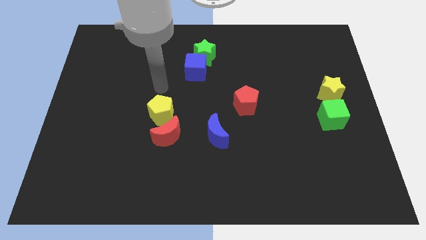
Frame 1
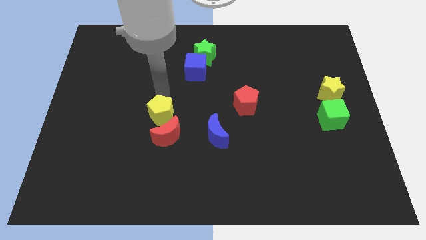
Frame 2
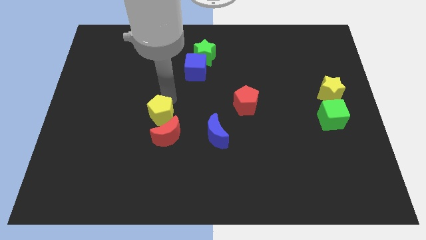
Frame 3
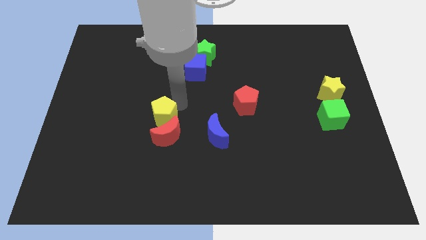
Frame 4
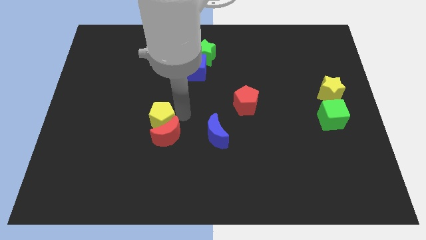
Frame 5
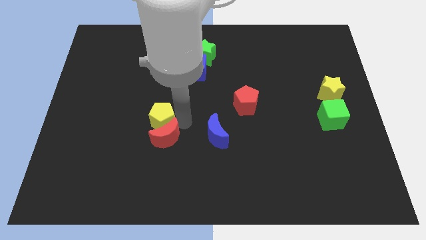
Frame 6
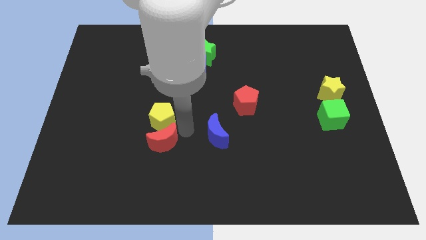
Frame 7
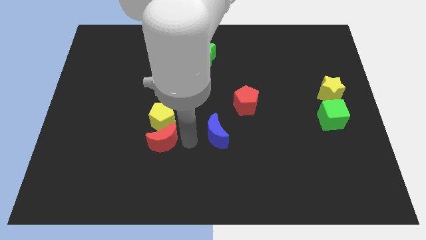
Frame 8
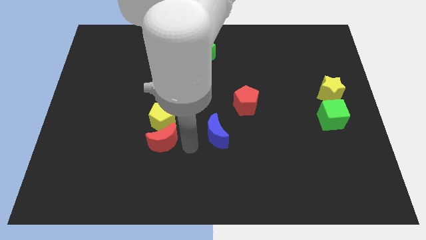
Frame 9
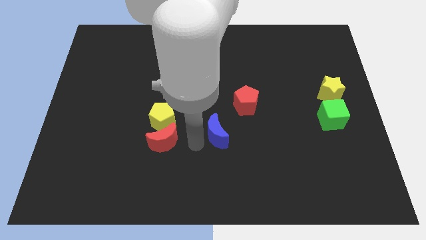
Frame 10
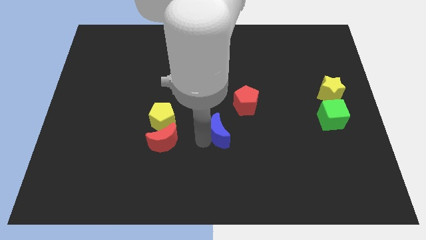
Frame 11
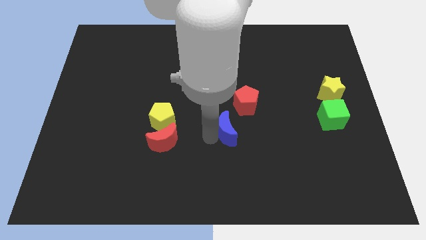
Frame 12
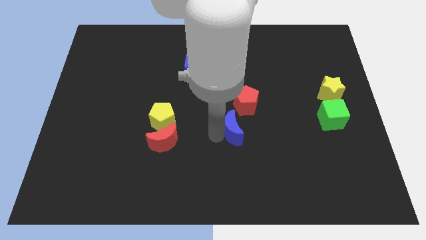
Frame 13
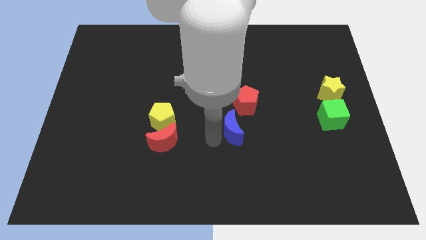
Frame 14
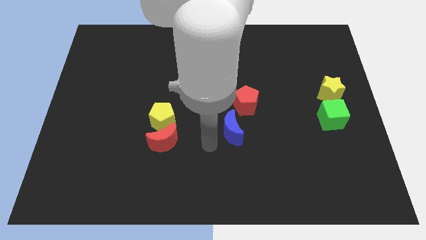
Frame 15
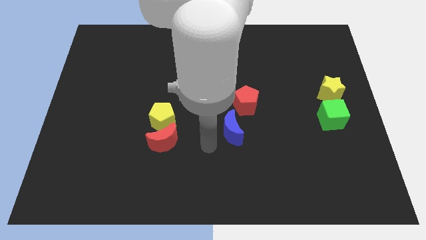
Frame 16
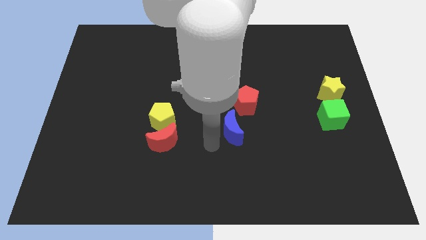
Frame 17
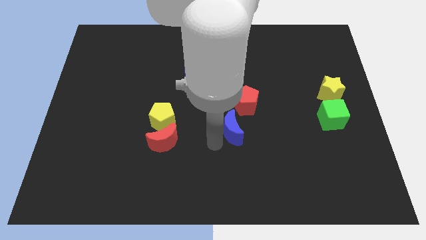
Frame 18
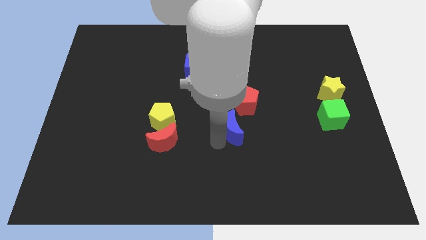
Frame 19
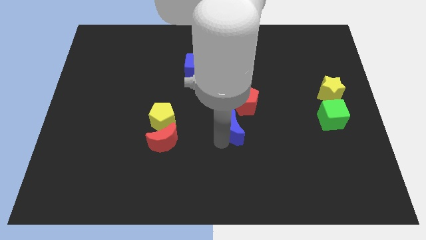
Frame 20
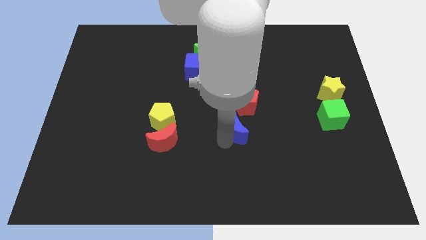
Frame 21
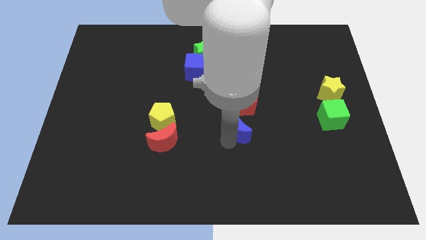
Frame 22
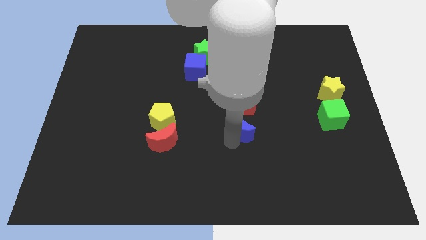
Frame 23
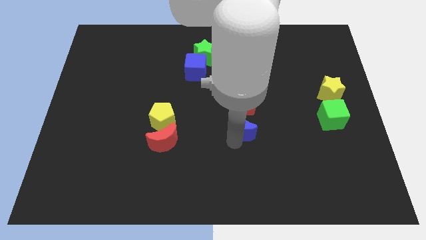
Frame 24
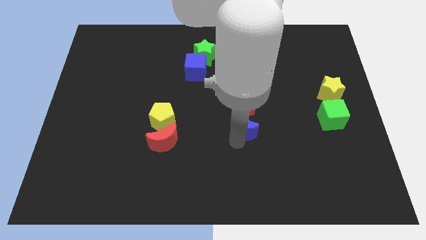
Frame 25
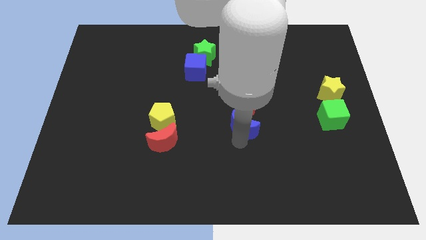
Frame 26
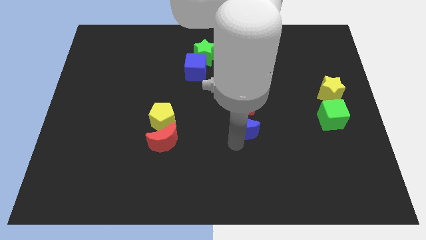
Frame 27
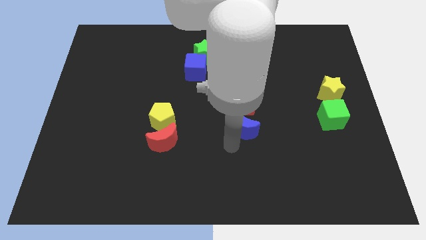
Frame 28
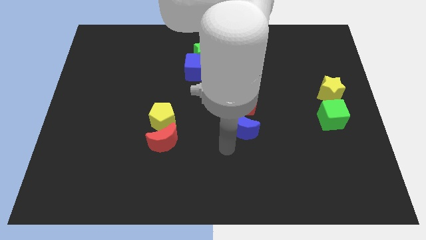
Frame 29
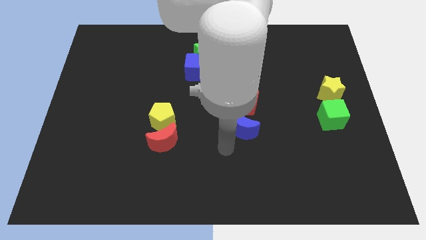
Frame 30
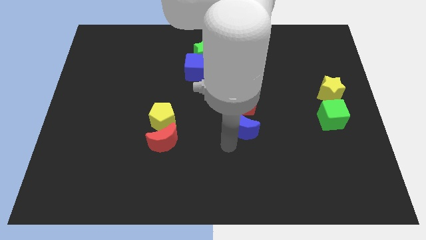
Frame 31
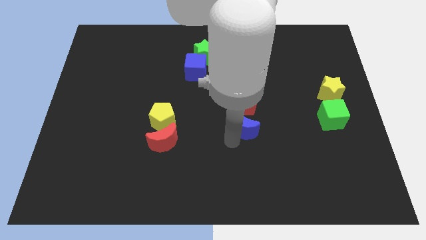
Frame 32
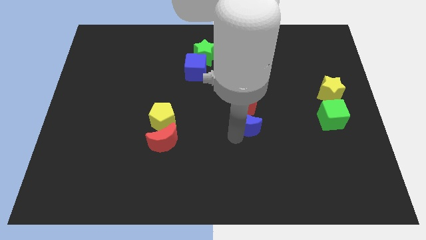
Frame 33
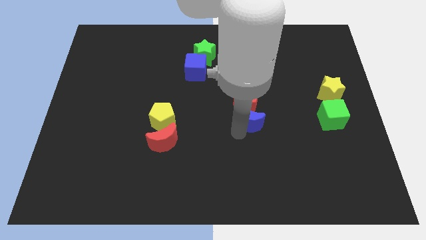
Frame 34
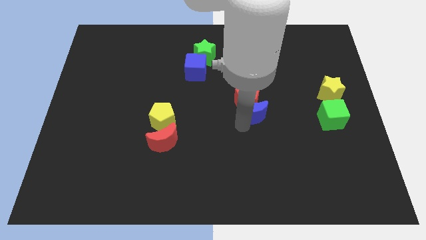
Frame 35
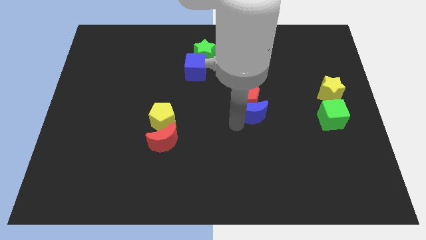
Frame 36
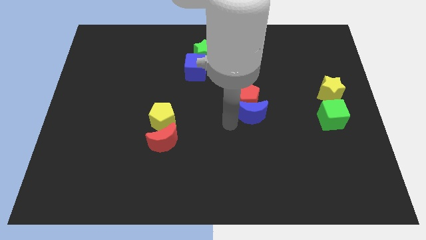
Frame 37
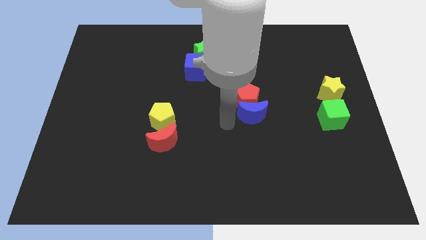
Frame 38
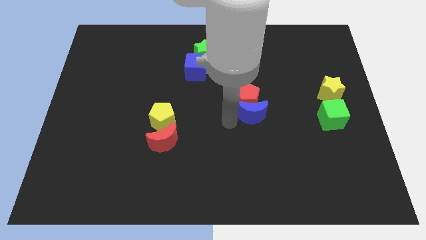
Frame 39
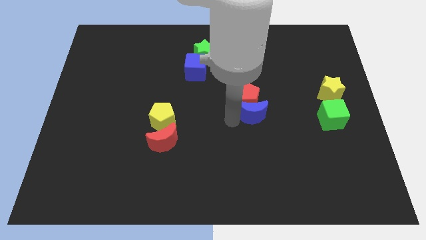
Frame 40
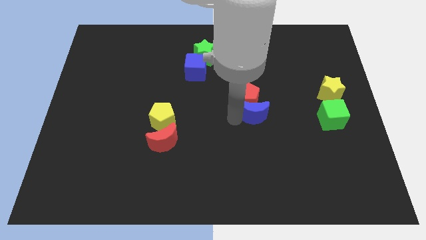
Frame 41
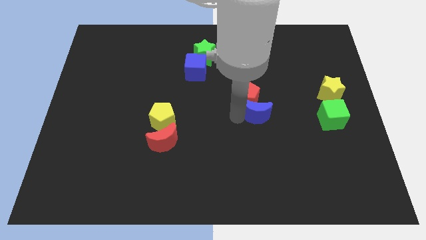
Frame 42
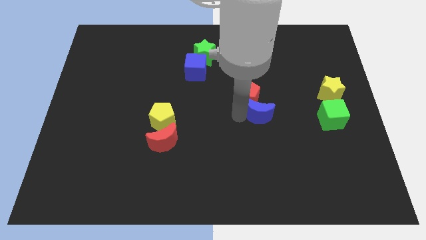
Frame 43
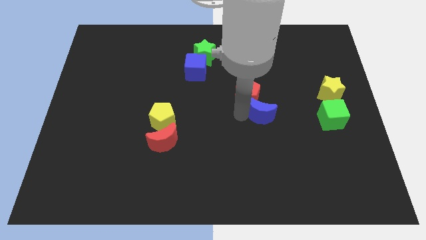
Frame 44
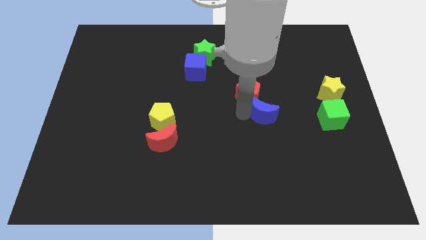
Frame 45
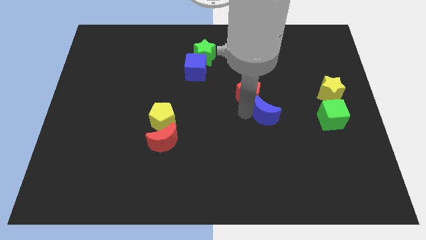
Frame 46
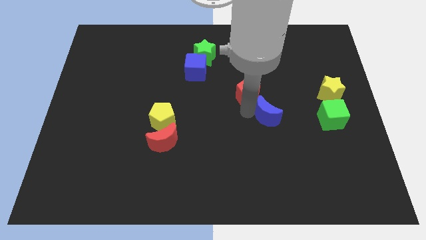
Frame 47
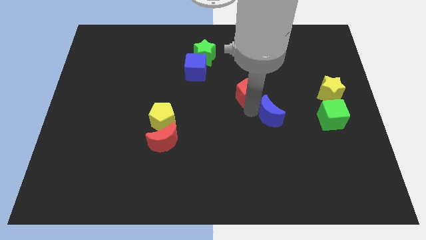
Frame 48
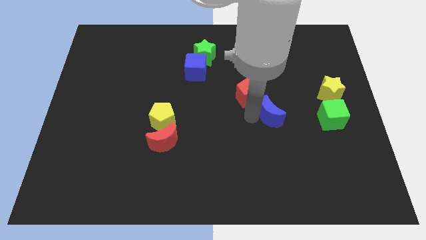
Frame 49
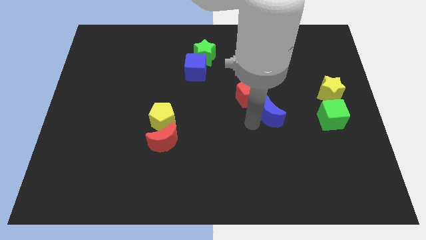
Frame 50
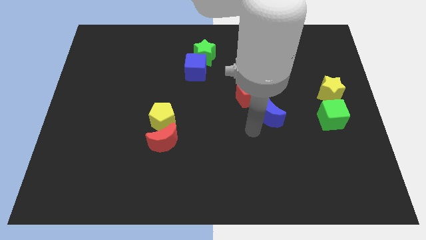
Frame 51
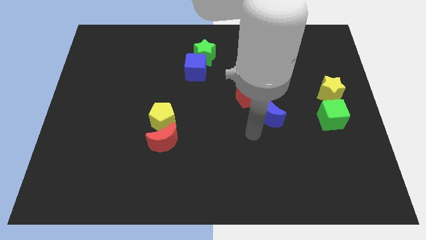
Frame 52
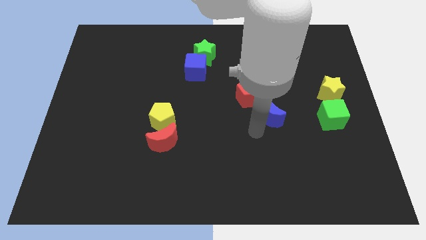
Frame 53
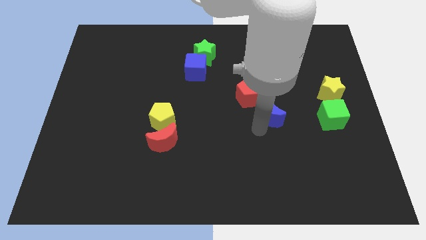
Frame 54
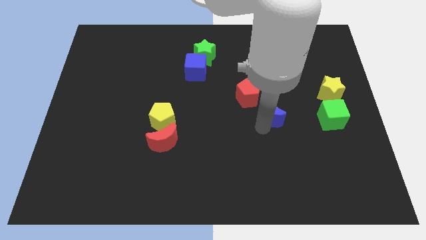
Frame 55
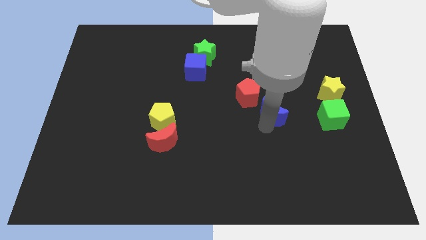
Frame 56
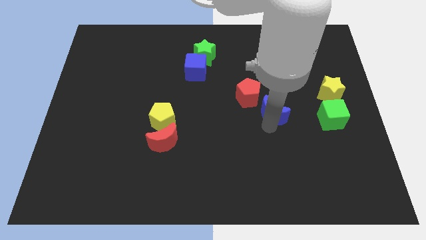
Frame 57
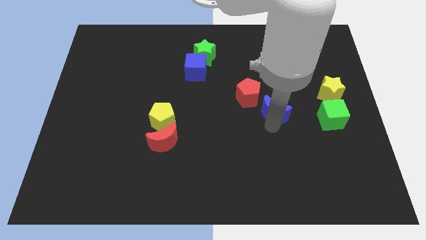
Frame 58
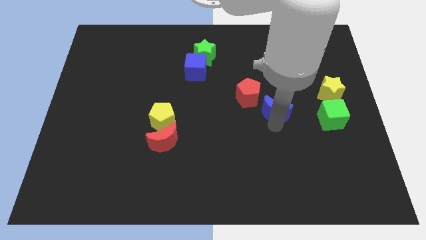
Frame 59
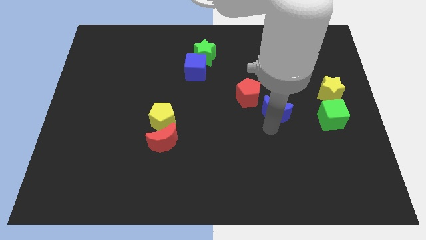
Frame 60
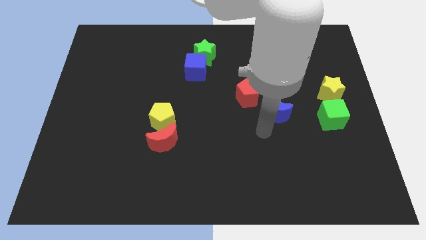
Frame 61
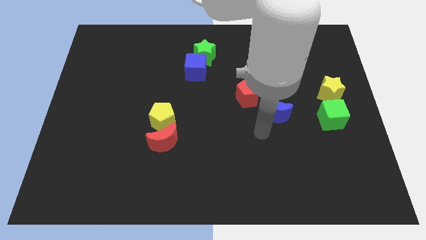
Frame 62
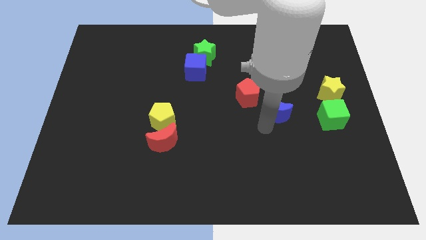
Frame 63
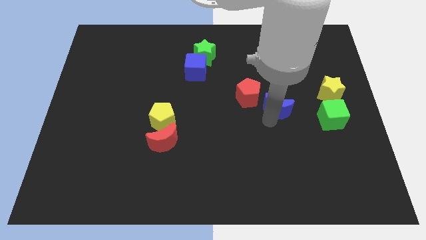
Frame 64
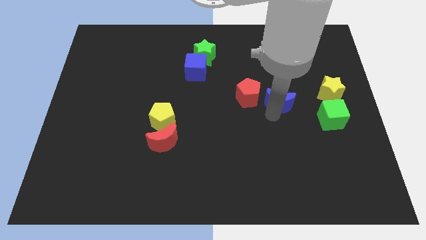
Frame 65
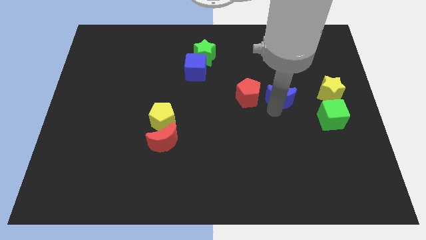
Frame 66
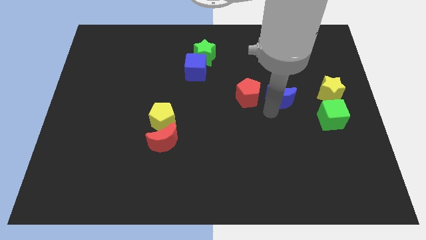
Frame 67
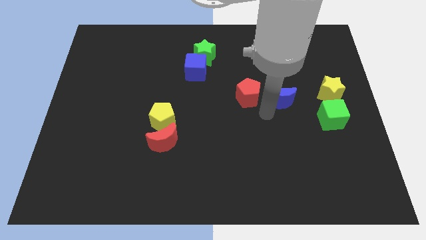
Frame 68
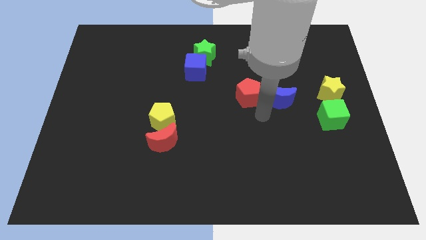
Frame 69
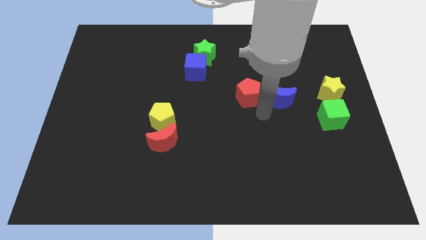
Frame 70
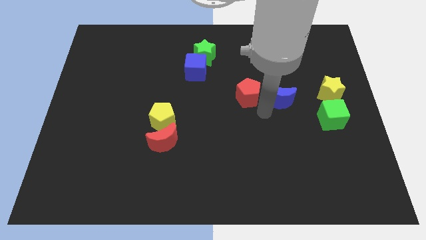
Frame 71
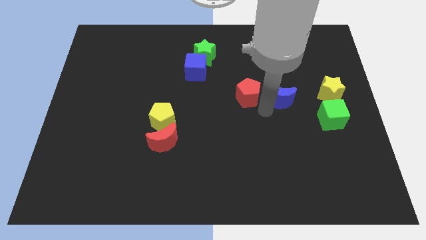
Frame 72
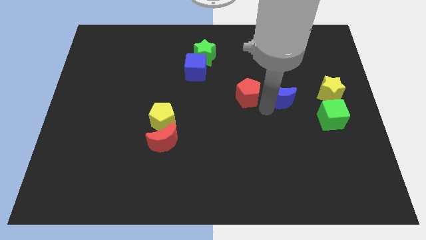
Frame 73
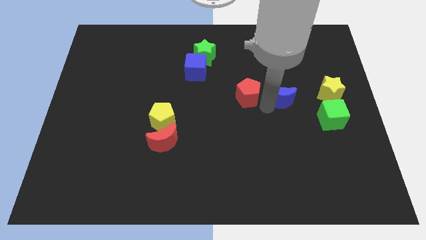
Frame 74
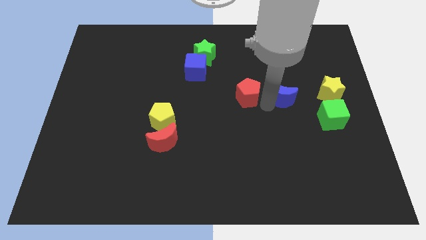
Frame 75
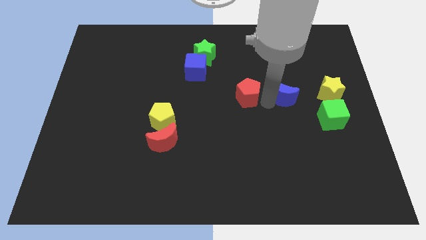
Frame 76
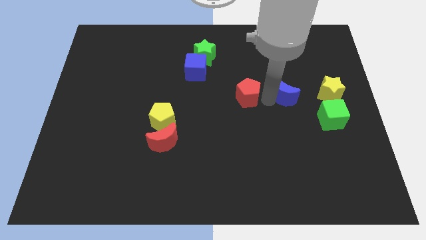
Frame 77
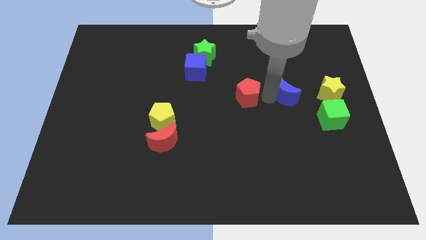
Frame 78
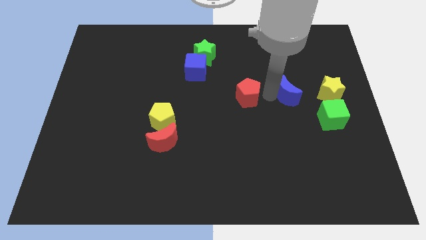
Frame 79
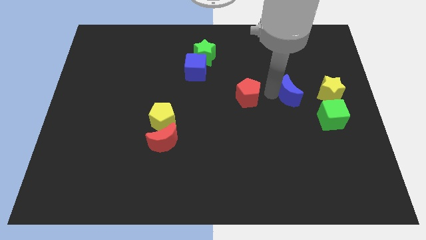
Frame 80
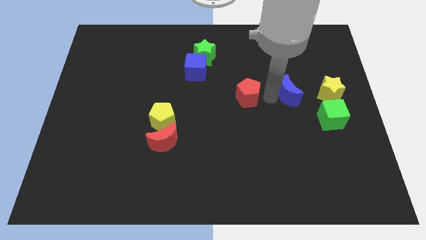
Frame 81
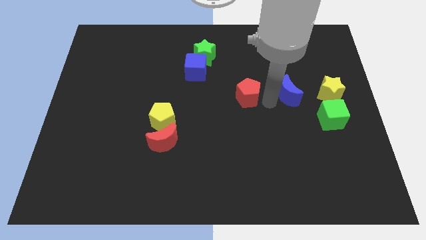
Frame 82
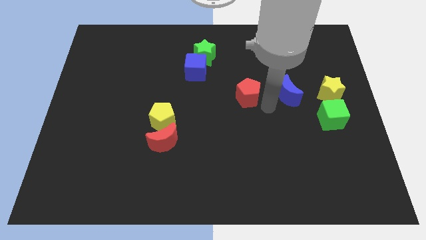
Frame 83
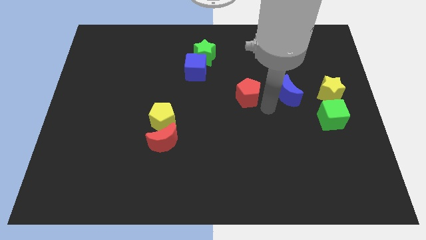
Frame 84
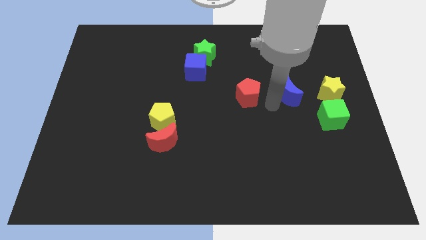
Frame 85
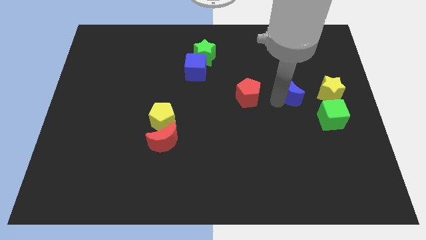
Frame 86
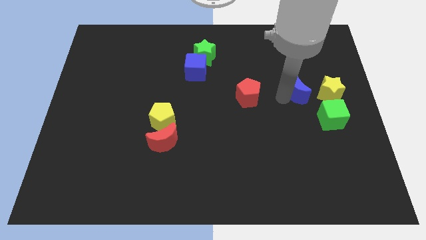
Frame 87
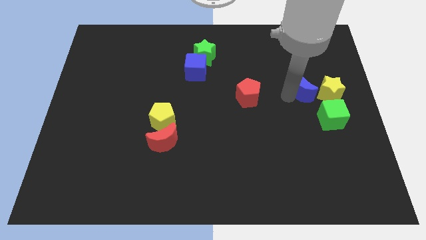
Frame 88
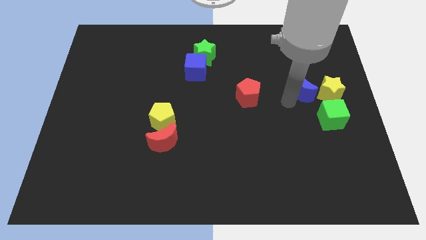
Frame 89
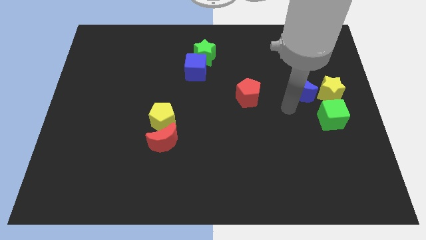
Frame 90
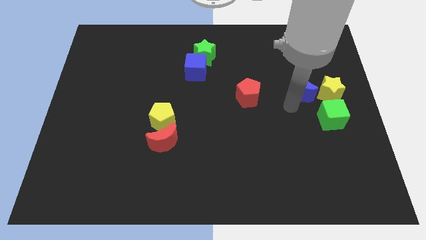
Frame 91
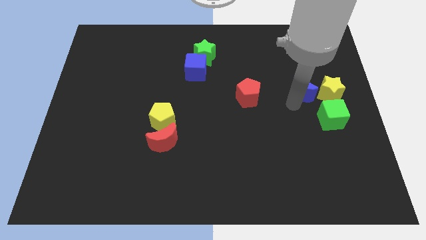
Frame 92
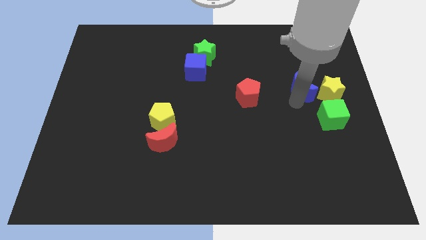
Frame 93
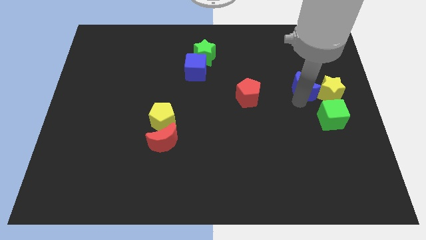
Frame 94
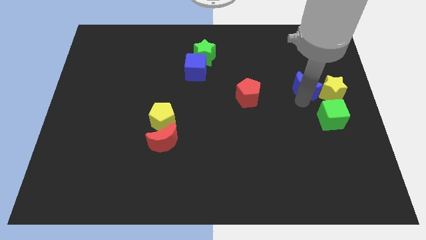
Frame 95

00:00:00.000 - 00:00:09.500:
slide the blue moon above the green cube
